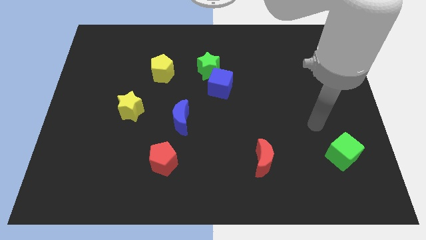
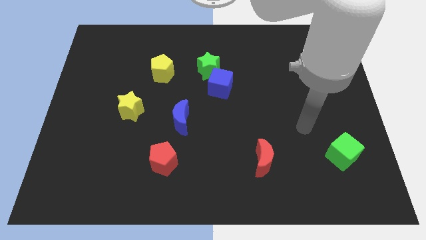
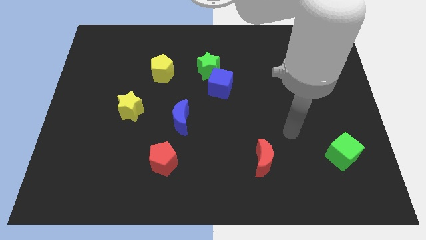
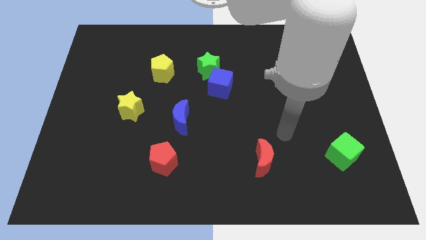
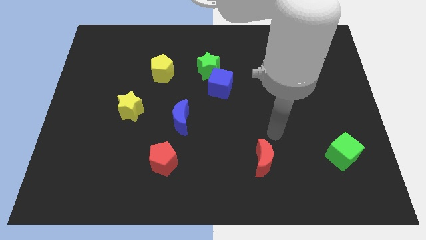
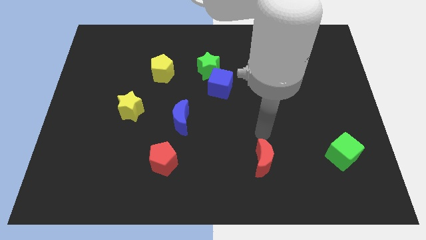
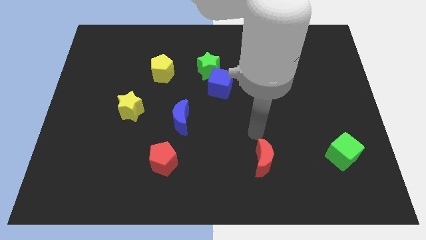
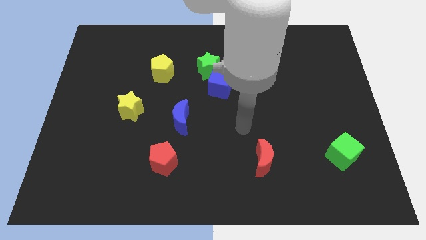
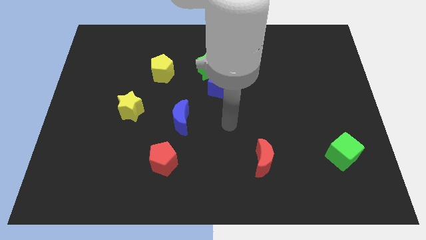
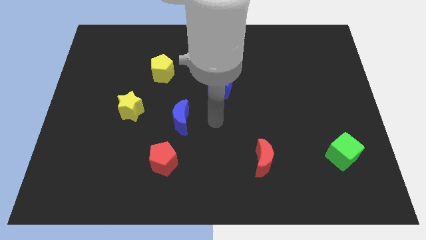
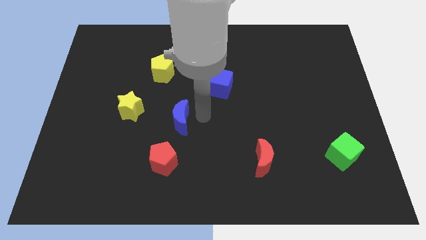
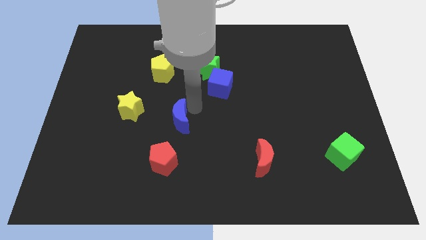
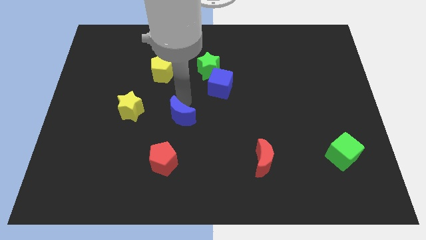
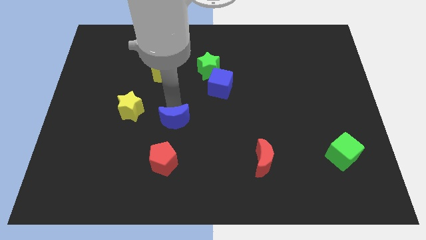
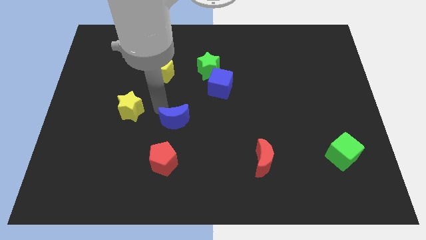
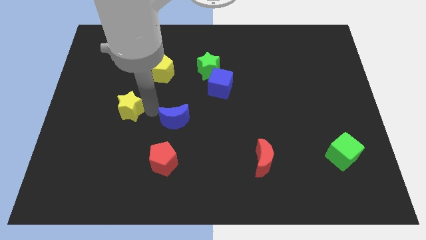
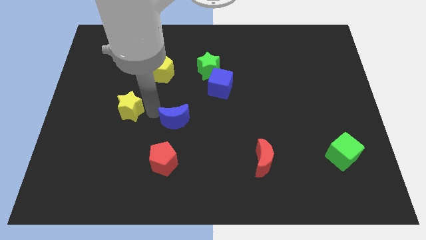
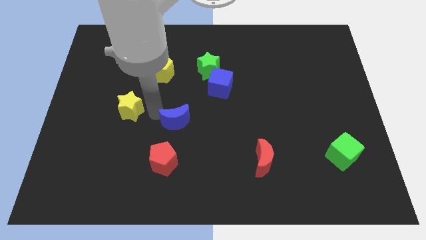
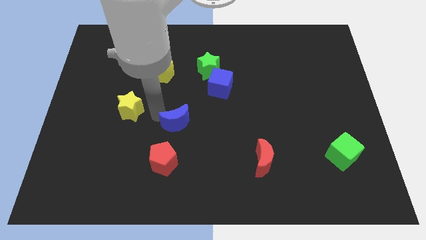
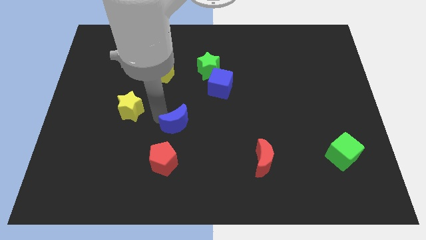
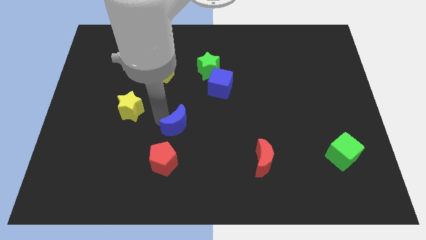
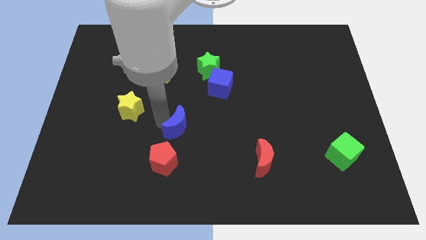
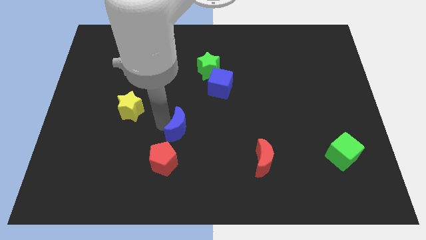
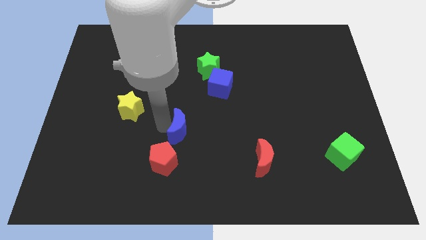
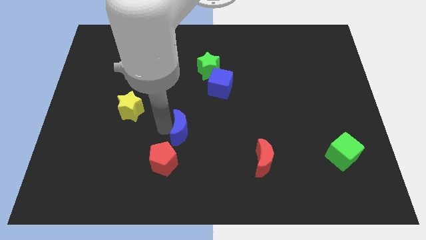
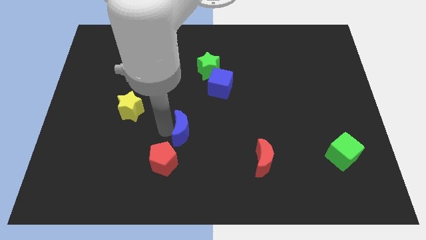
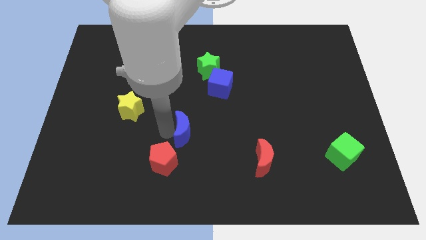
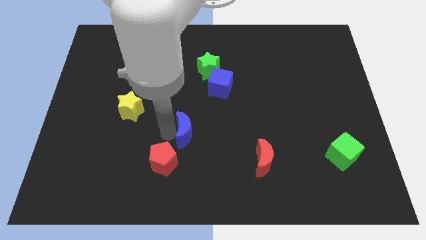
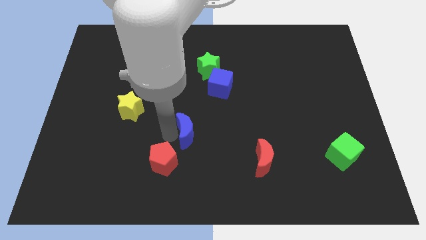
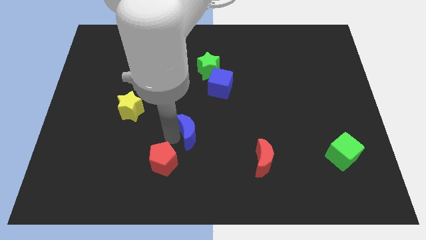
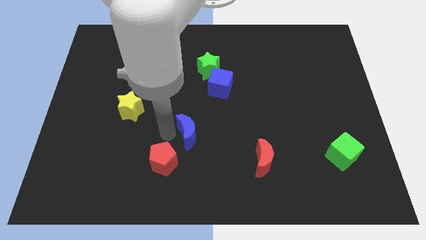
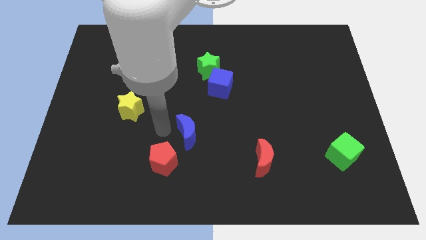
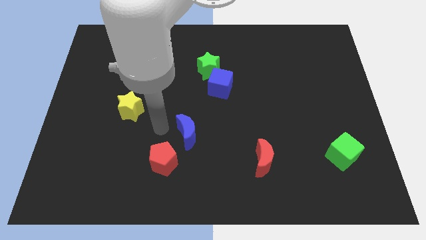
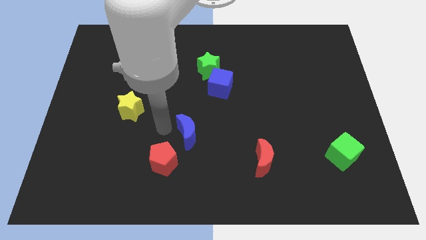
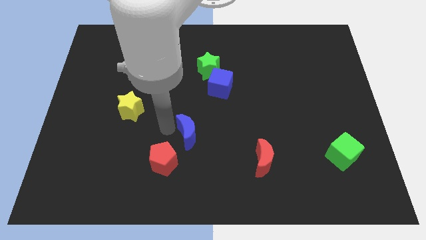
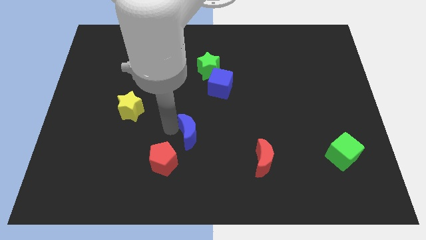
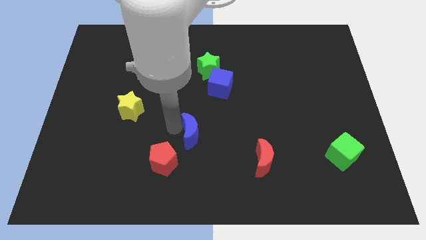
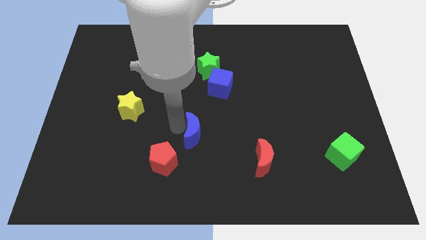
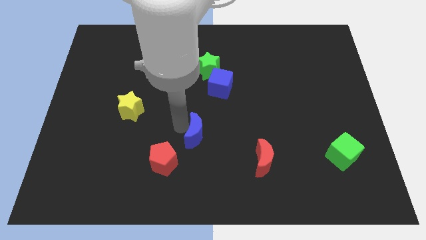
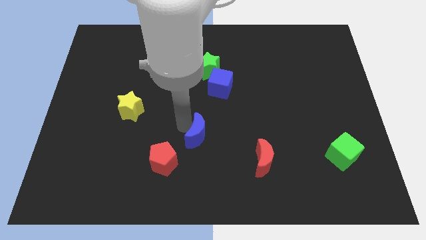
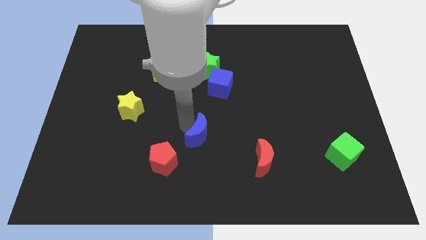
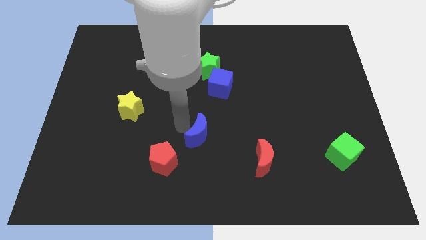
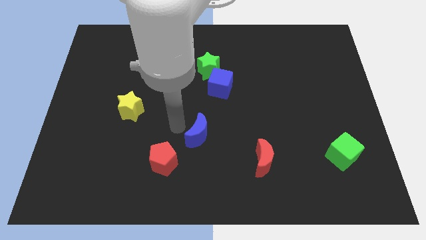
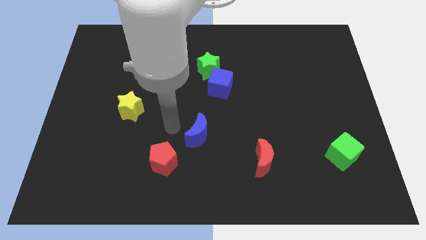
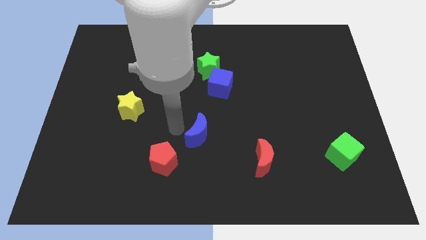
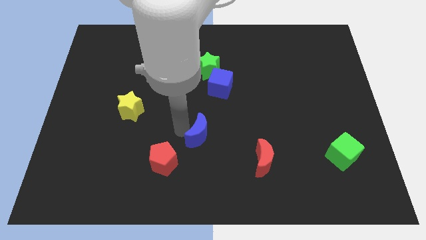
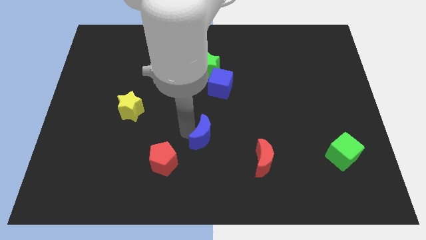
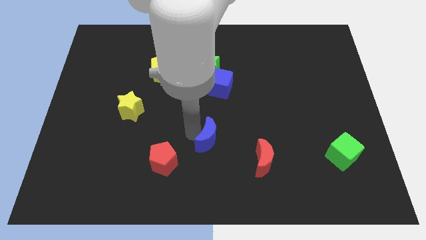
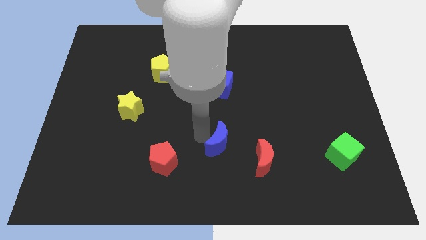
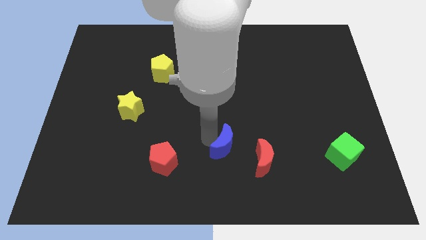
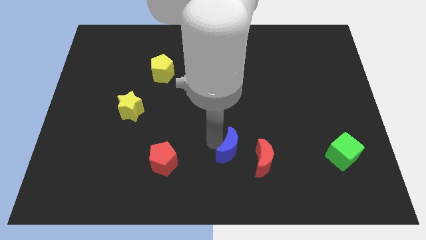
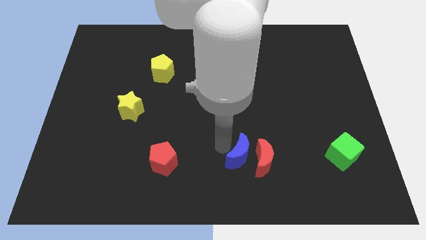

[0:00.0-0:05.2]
push the blue moon next to the red moon

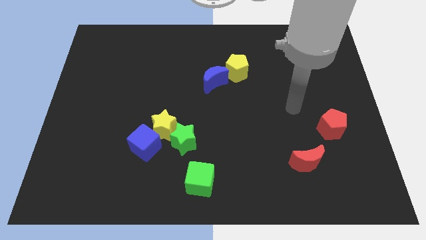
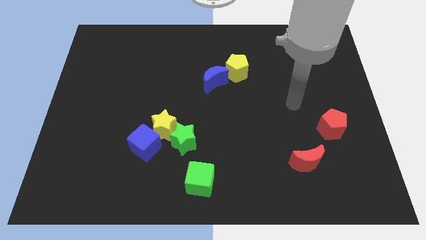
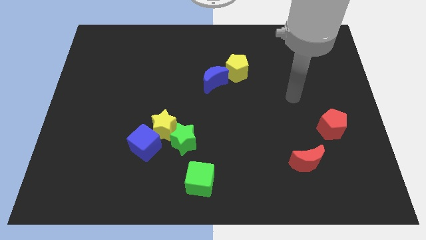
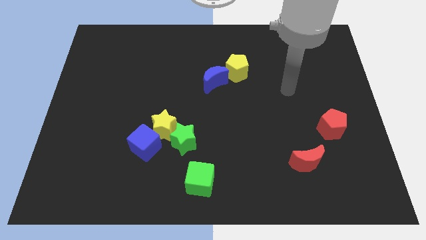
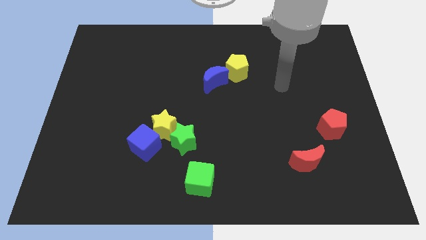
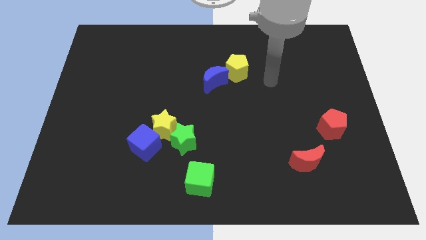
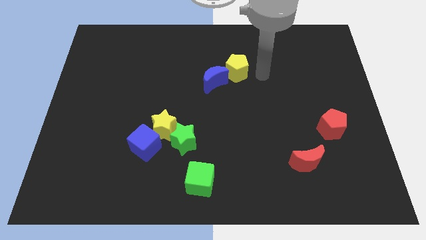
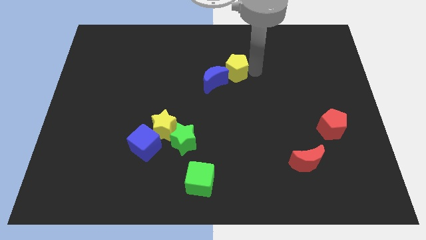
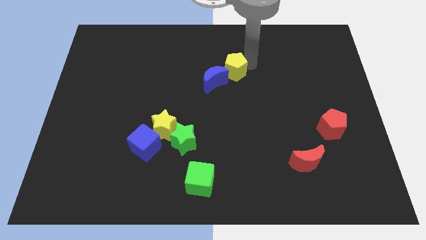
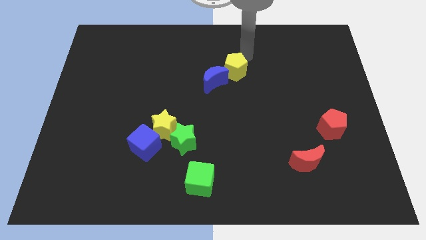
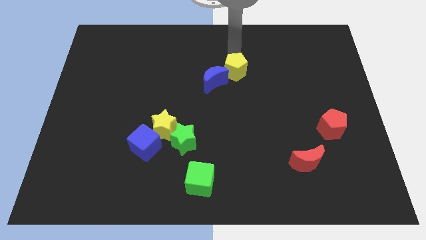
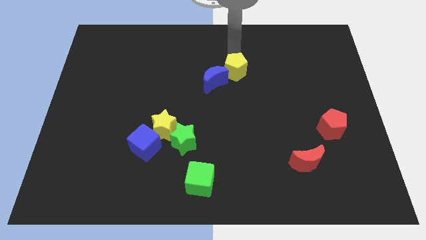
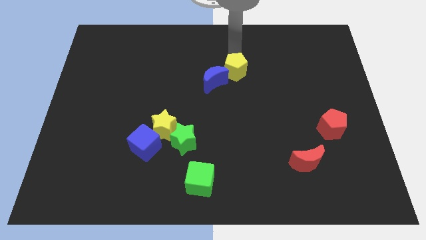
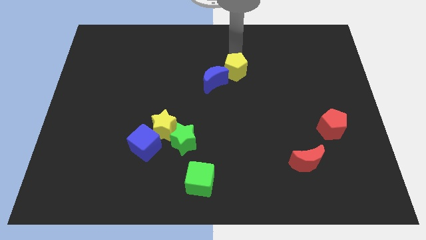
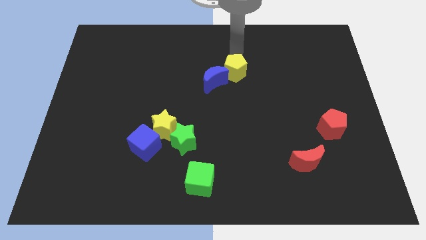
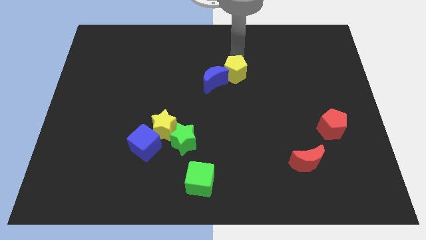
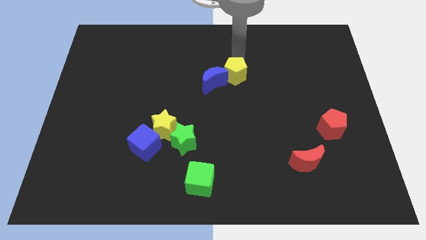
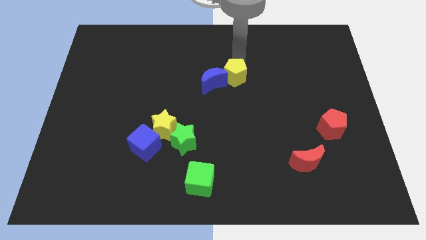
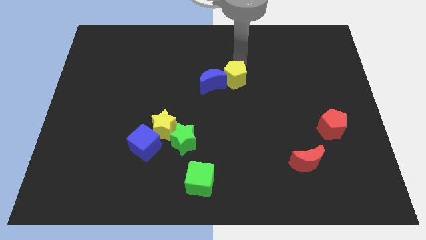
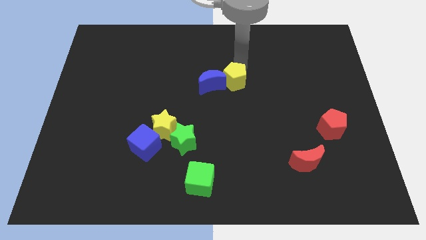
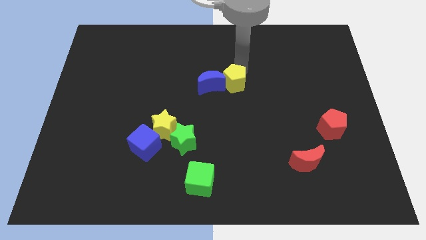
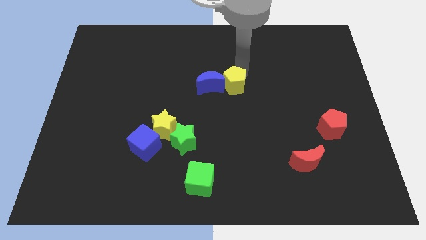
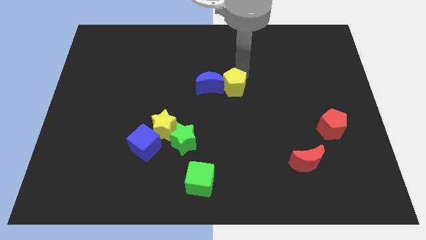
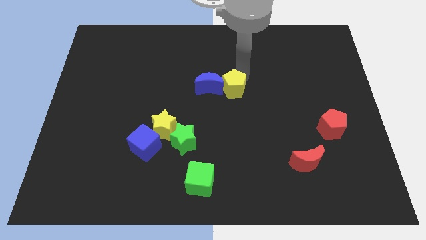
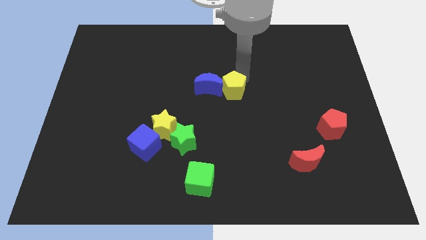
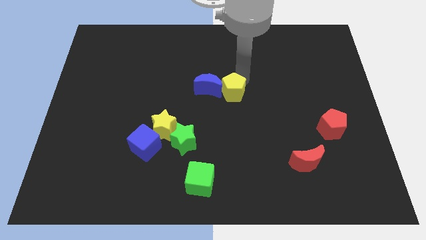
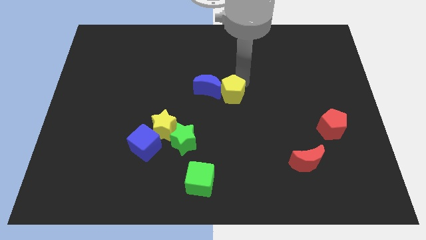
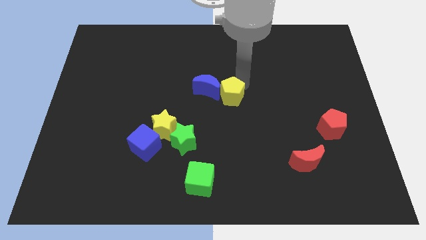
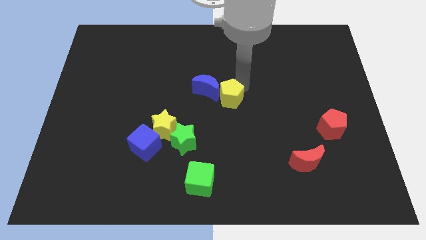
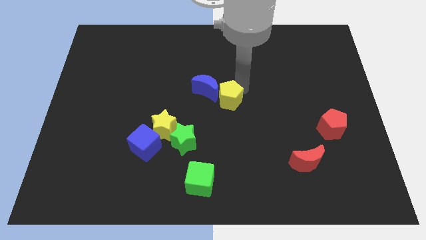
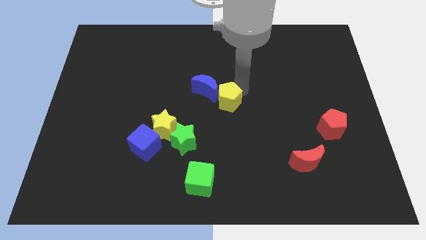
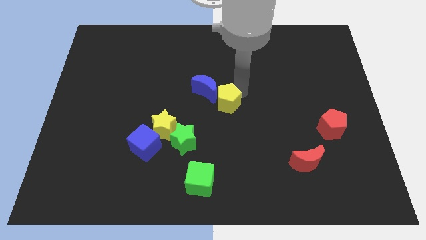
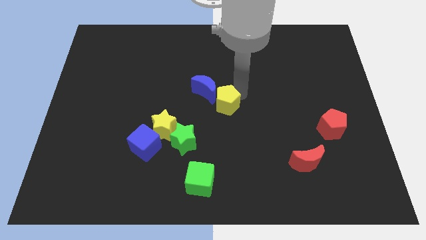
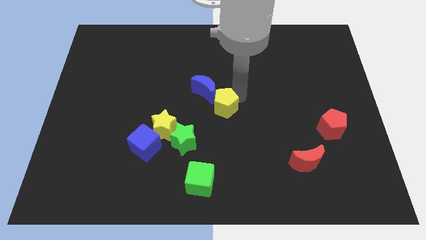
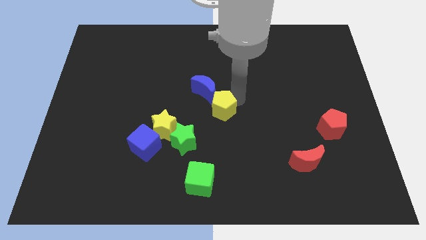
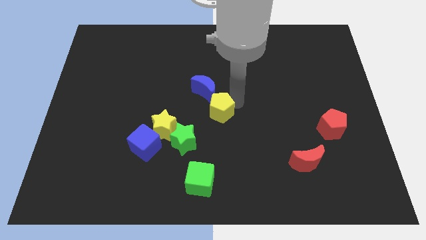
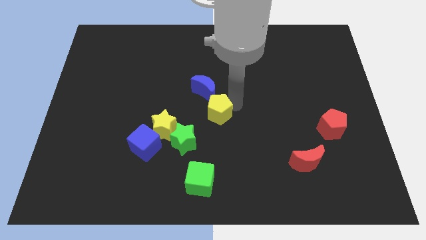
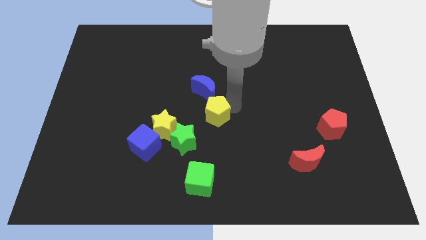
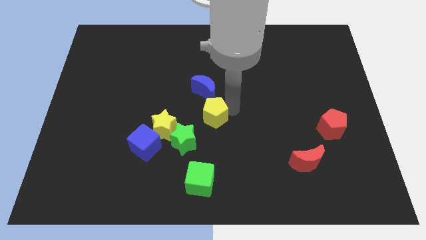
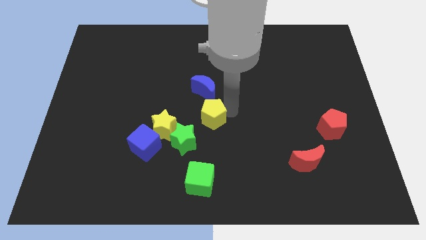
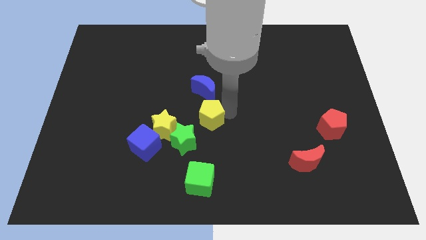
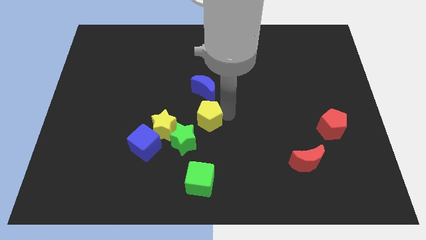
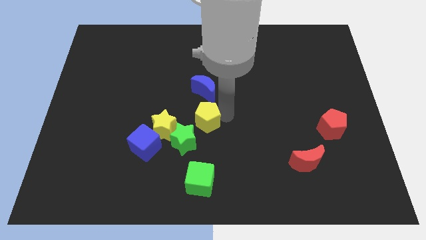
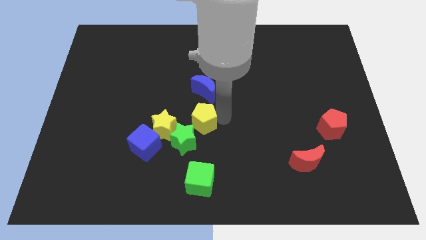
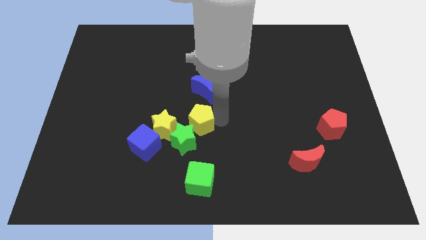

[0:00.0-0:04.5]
move the yellow pentagon next to the green star
